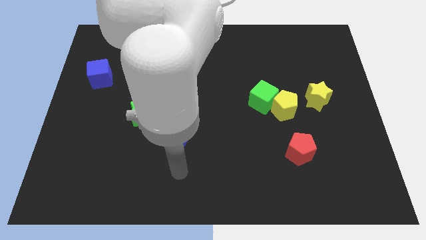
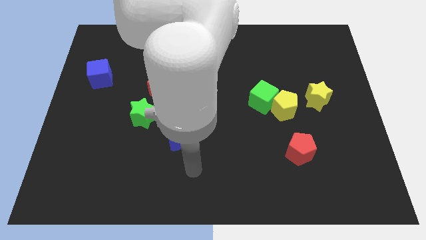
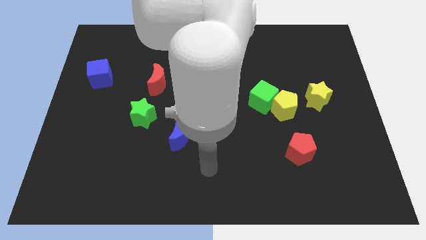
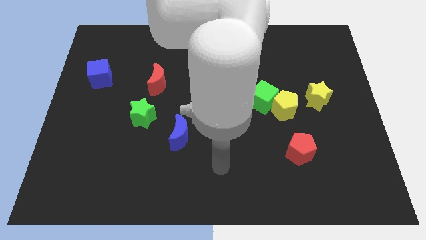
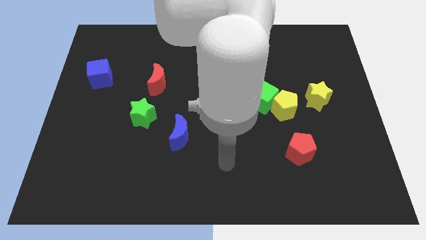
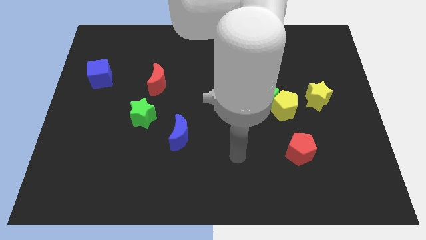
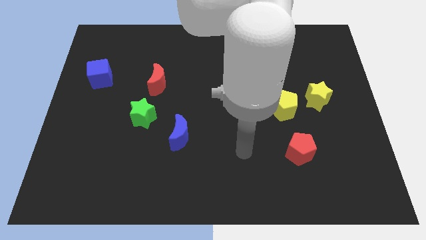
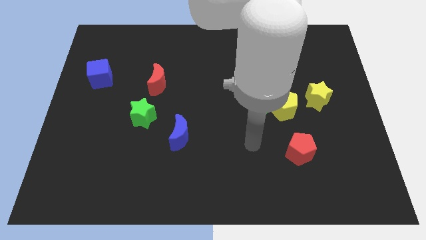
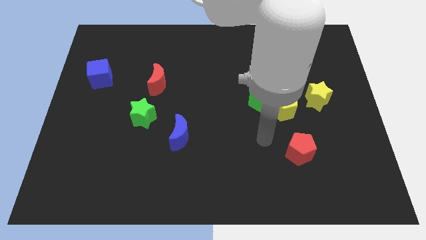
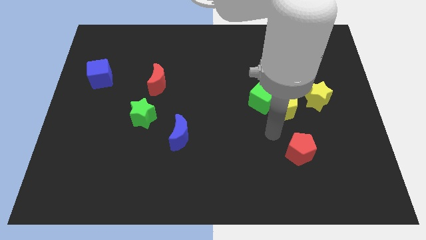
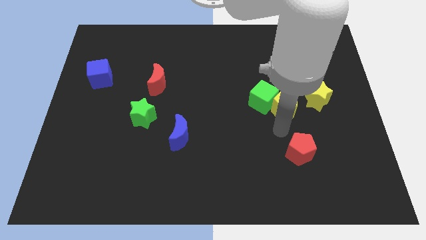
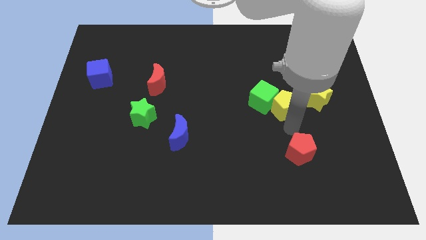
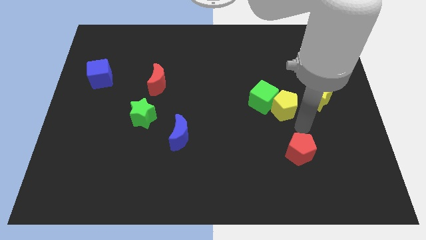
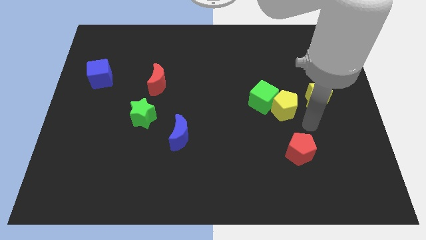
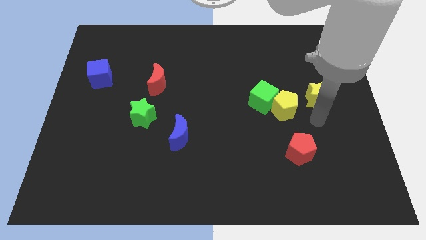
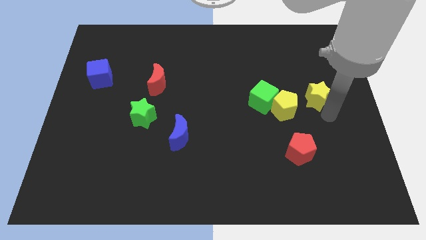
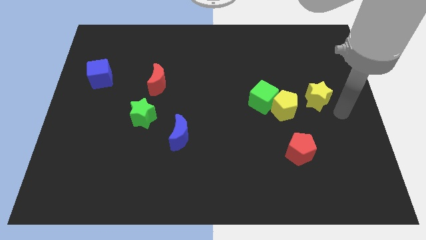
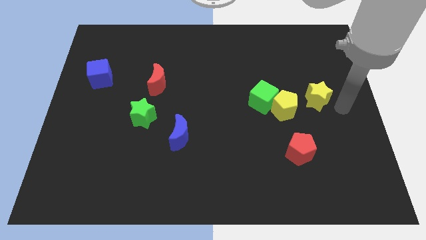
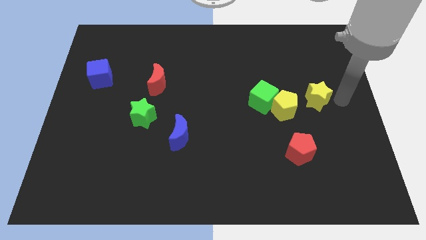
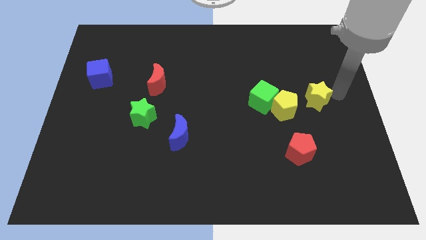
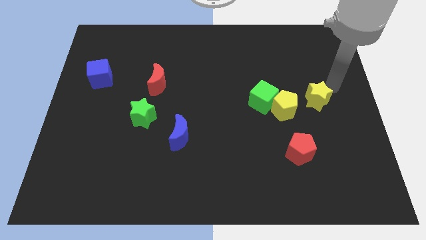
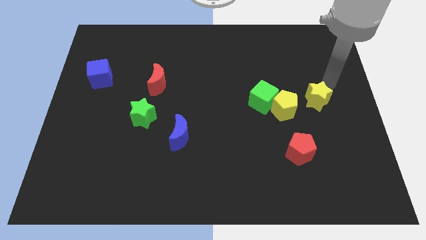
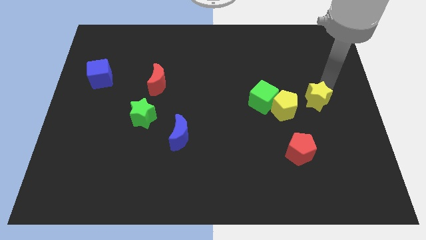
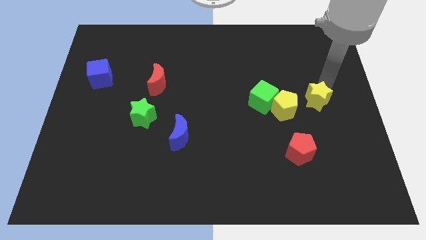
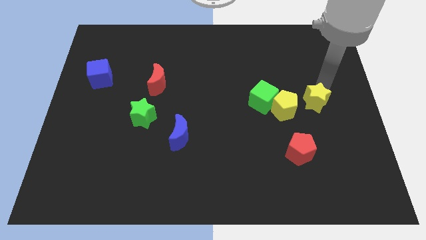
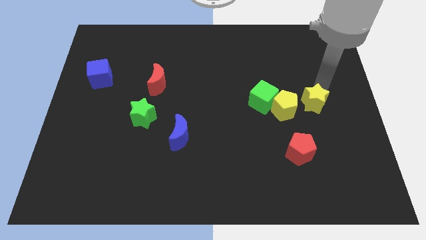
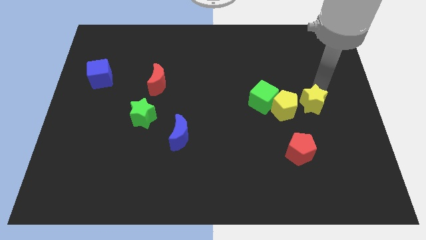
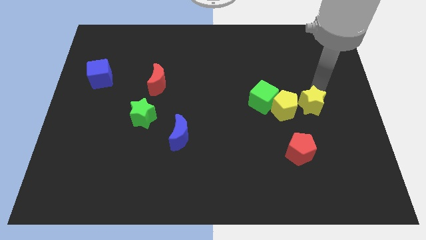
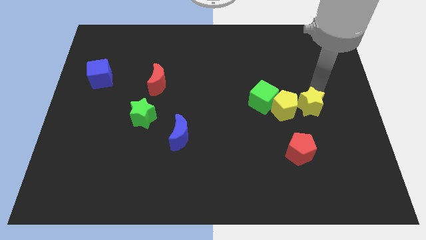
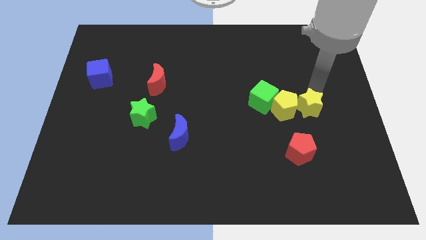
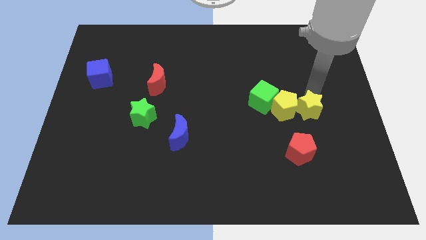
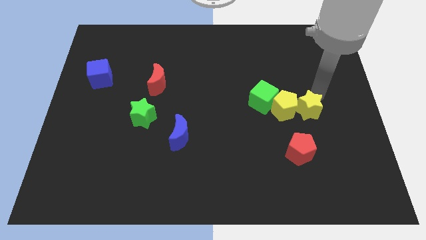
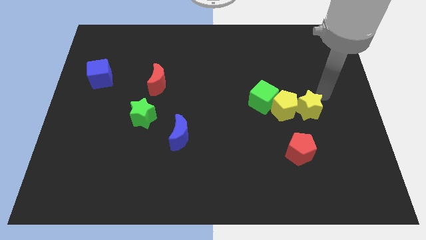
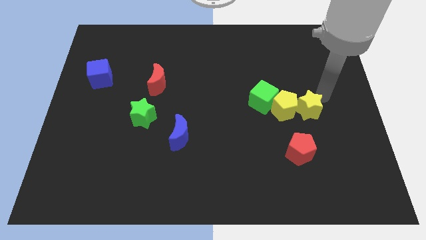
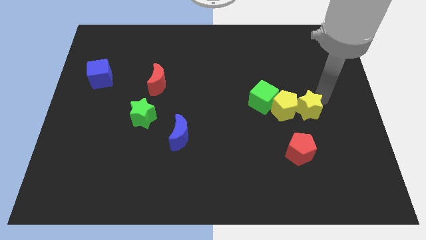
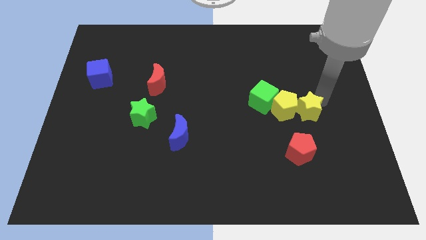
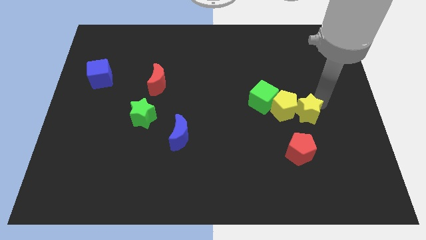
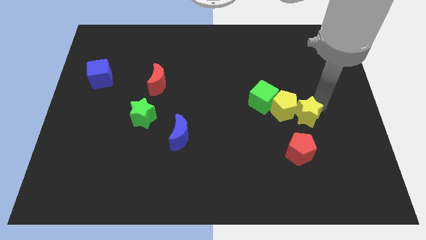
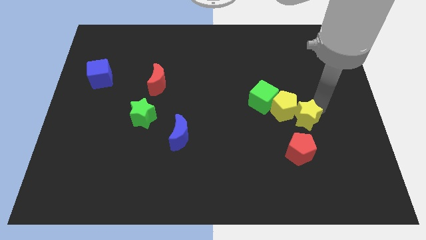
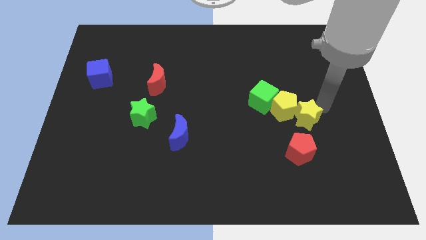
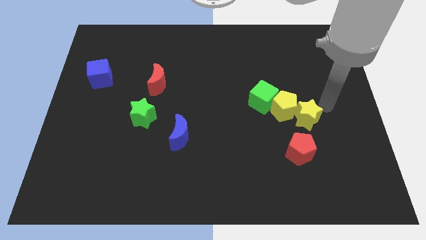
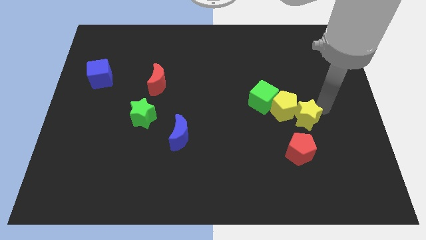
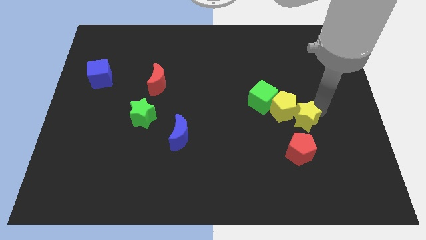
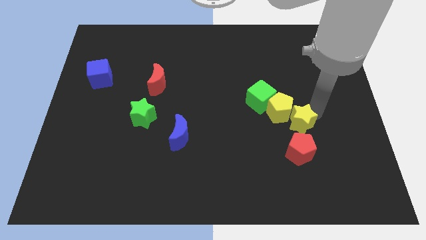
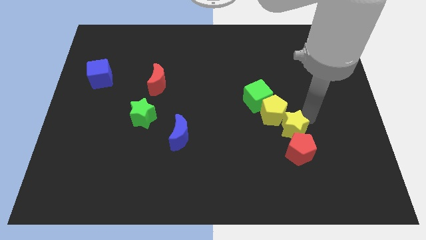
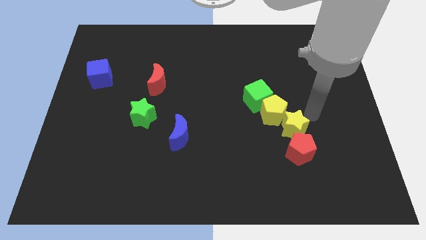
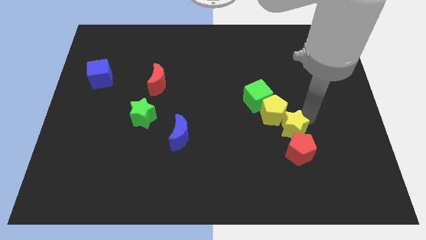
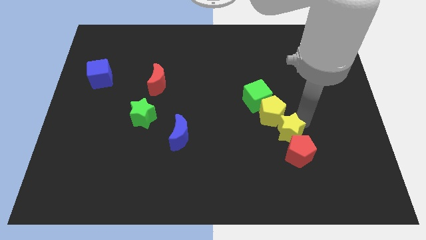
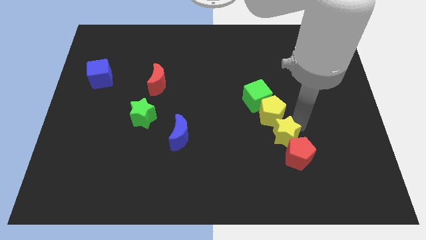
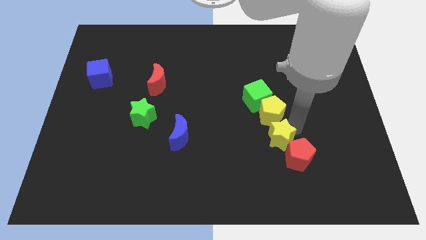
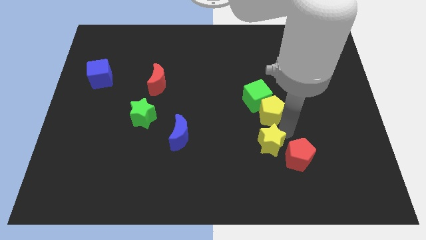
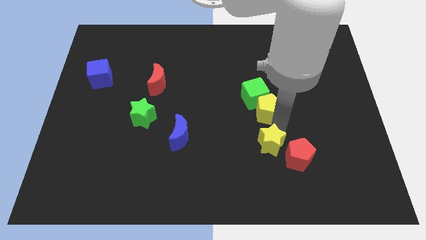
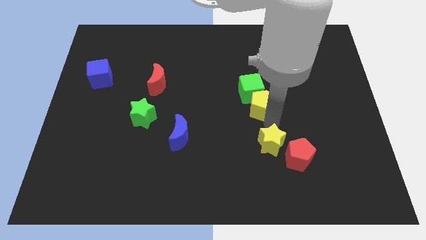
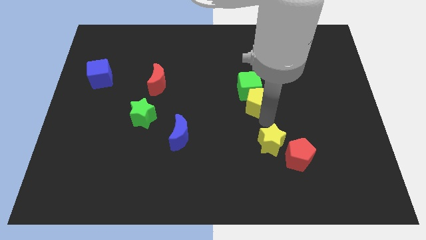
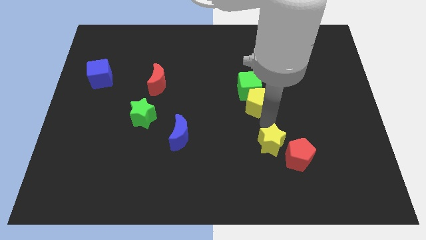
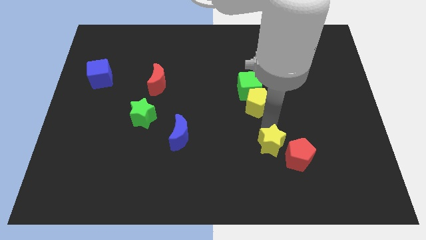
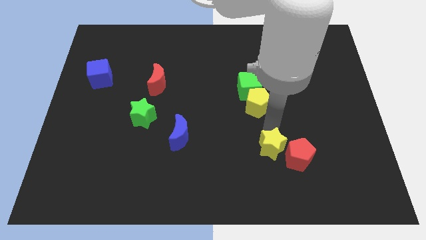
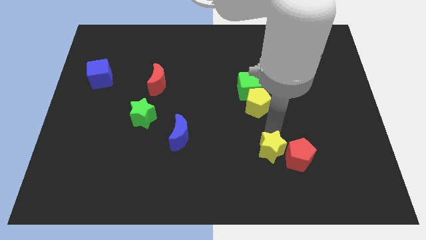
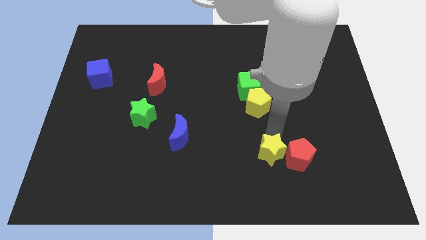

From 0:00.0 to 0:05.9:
put the yellow star to the bottom left of the red pentagon

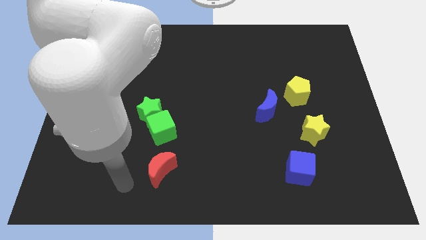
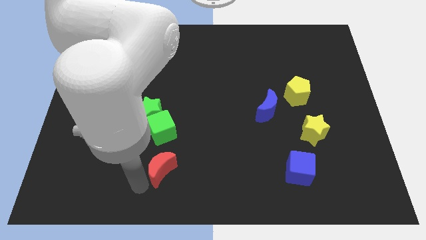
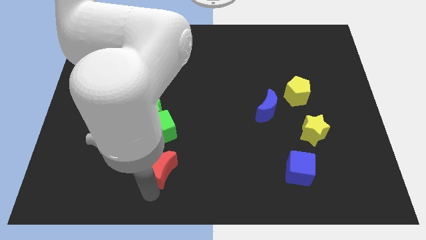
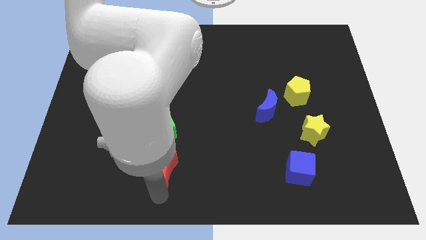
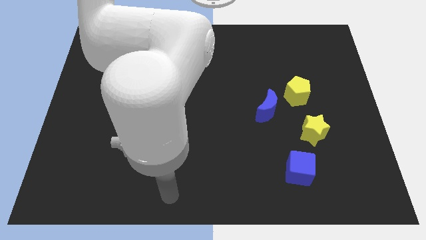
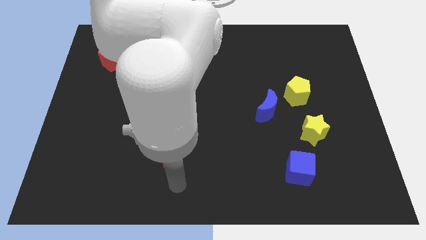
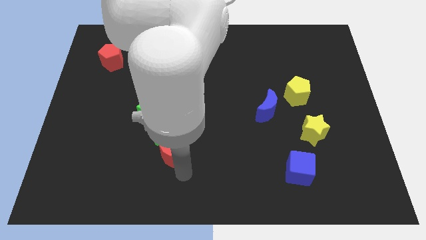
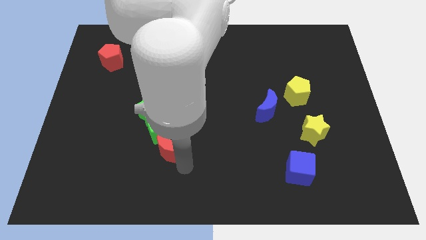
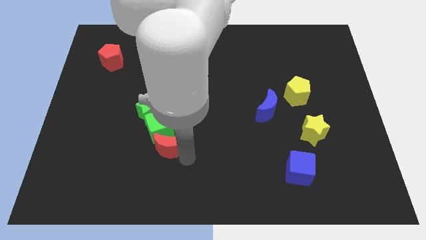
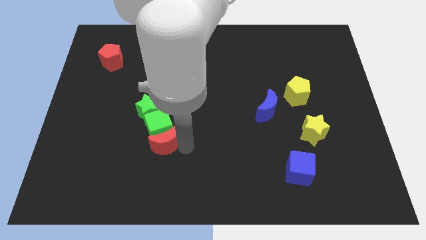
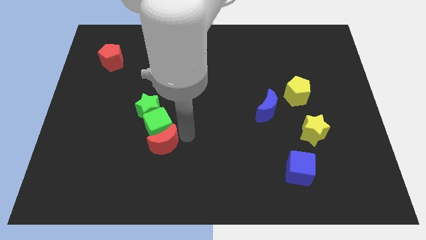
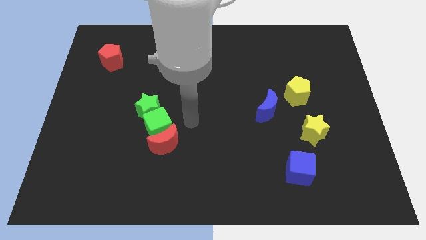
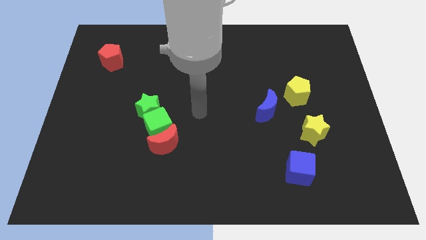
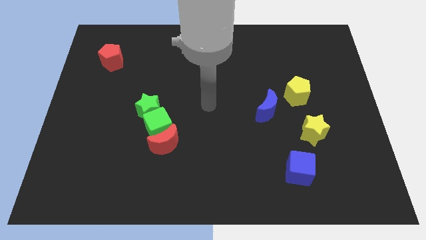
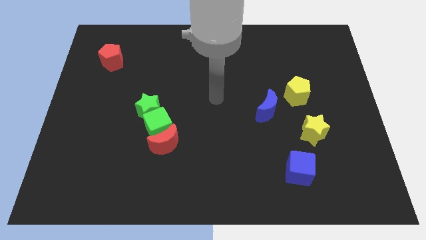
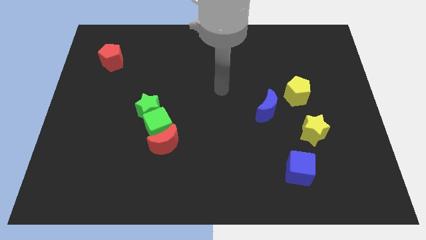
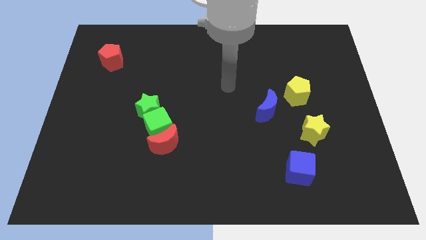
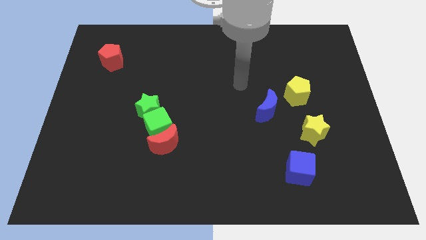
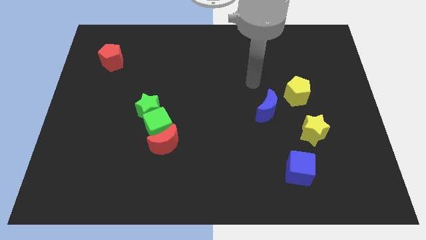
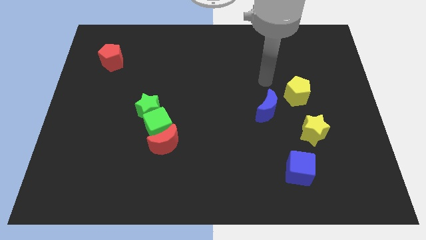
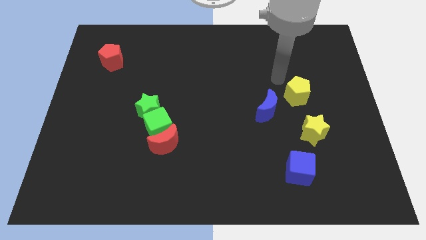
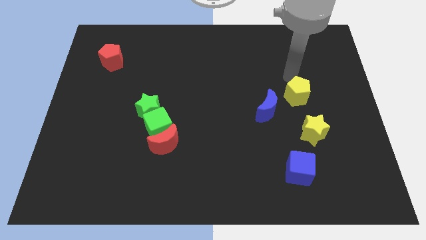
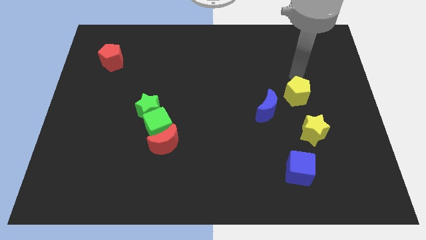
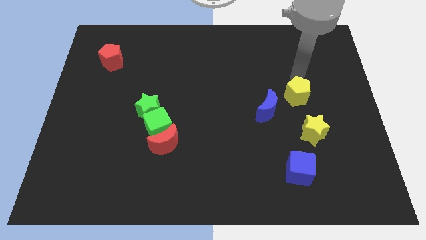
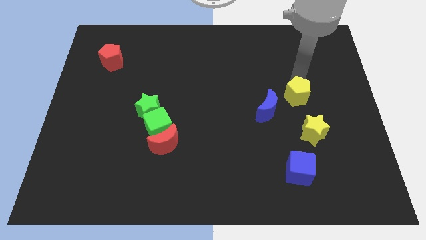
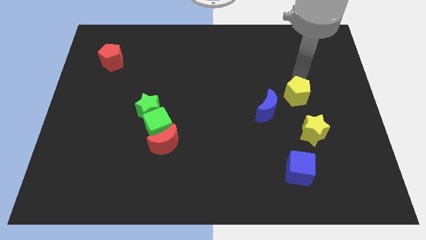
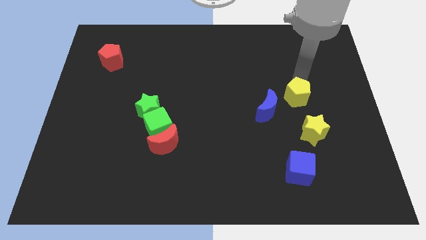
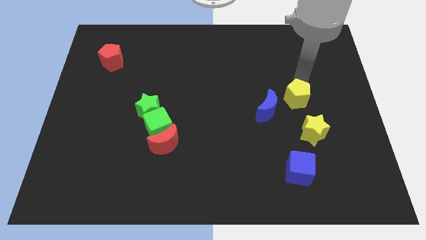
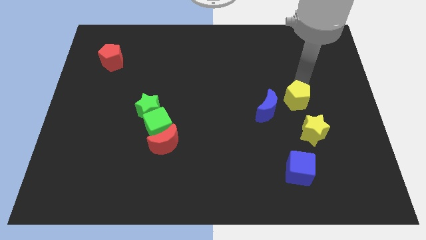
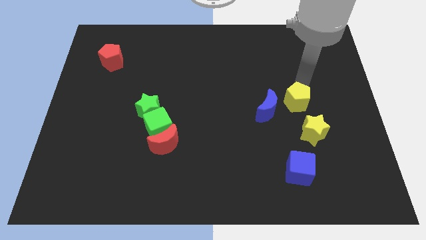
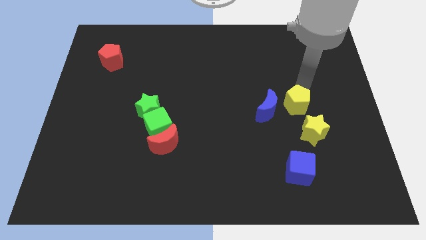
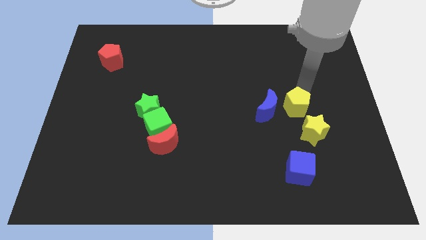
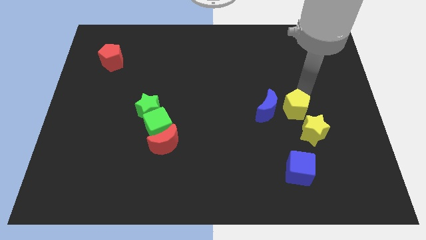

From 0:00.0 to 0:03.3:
push the yellow pentagon to the bottom right side of the blue moon
